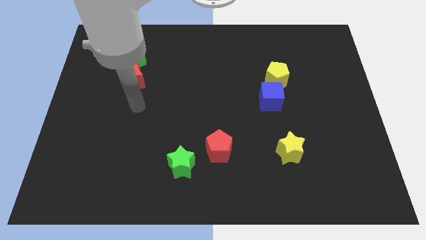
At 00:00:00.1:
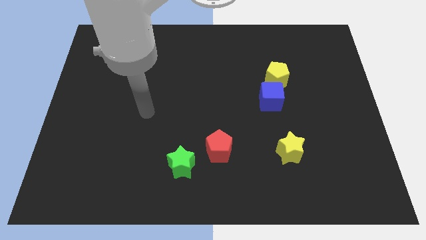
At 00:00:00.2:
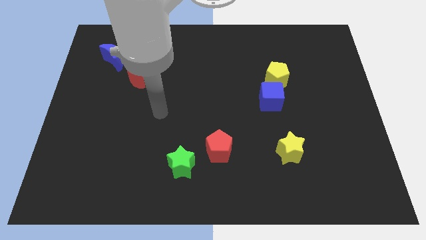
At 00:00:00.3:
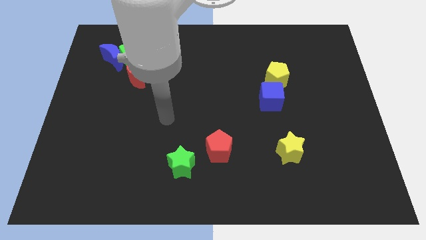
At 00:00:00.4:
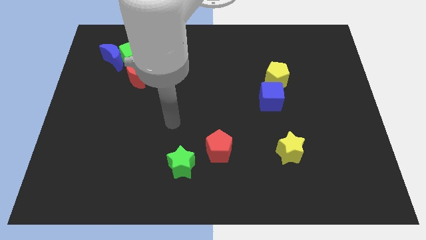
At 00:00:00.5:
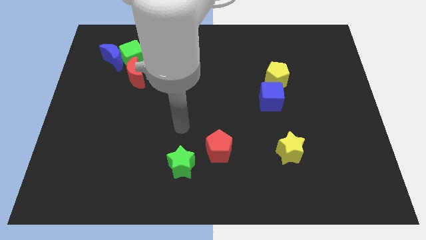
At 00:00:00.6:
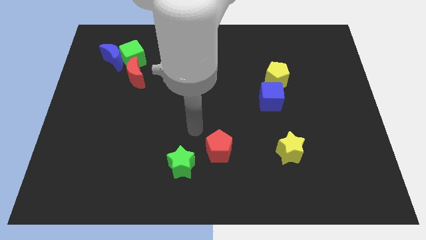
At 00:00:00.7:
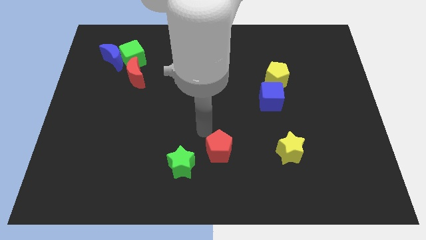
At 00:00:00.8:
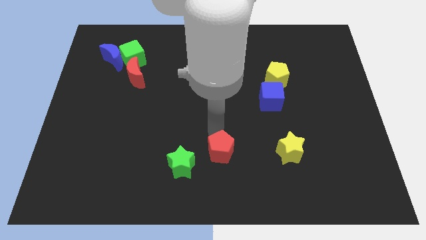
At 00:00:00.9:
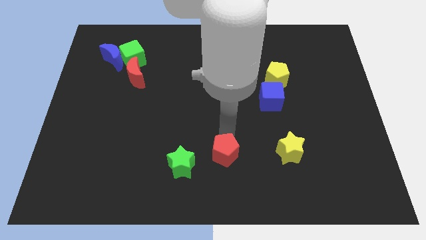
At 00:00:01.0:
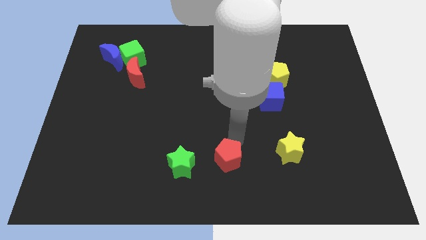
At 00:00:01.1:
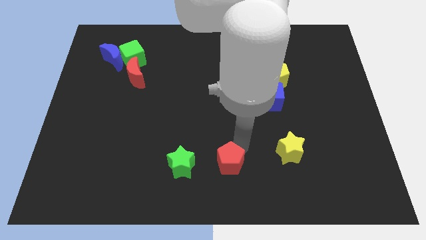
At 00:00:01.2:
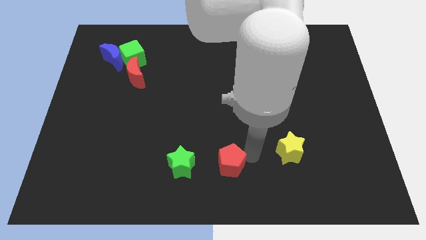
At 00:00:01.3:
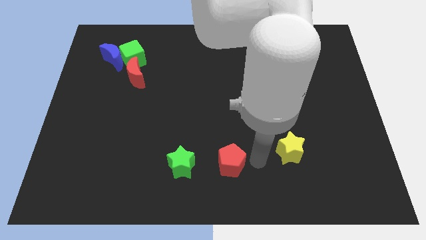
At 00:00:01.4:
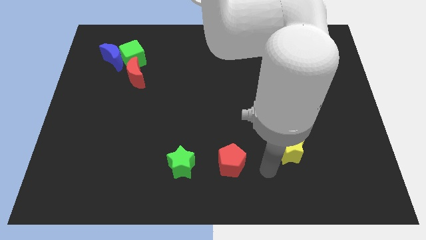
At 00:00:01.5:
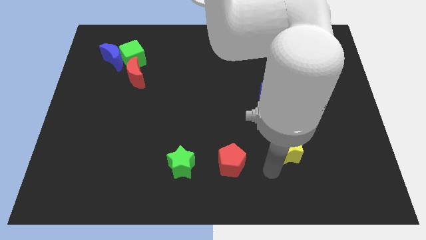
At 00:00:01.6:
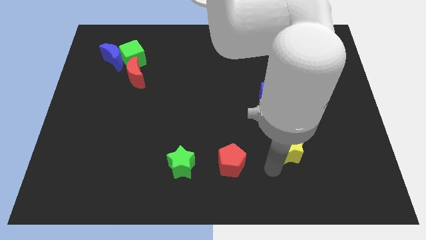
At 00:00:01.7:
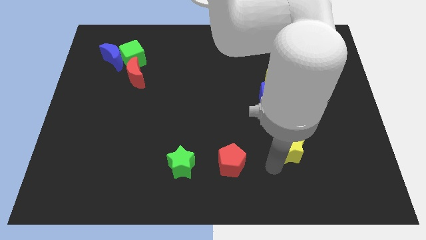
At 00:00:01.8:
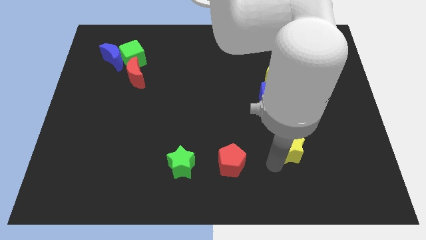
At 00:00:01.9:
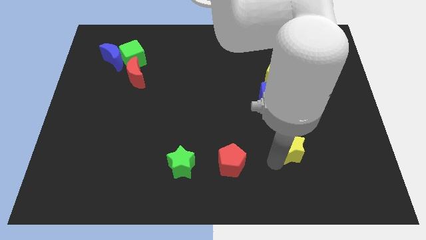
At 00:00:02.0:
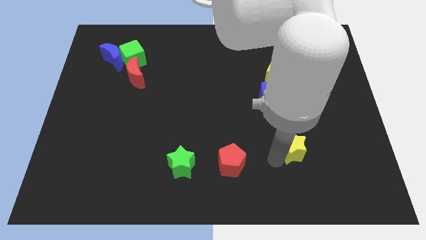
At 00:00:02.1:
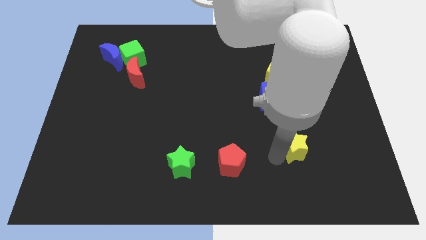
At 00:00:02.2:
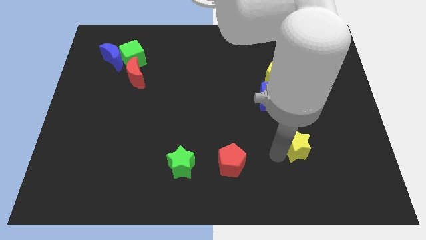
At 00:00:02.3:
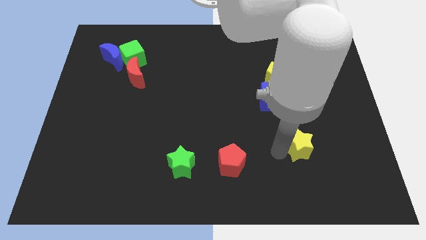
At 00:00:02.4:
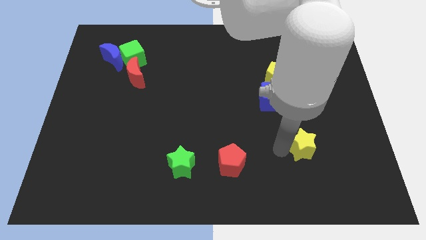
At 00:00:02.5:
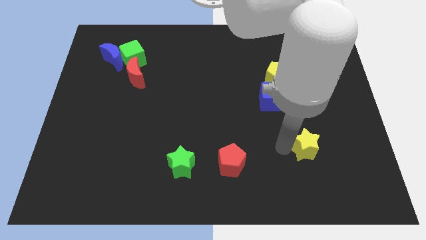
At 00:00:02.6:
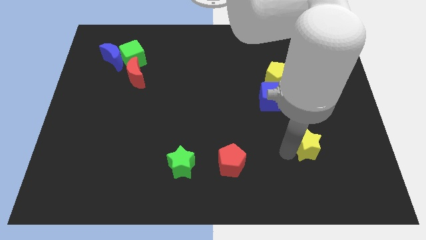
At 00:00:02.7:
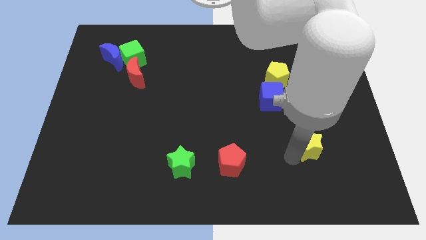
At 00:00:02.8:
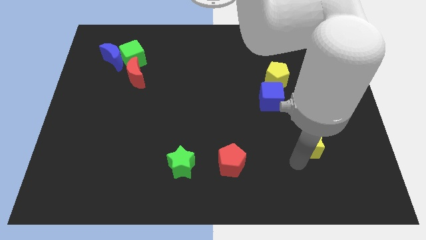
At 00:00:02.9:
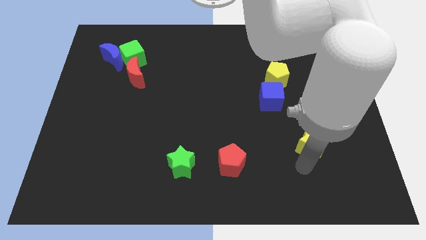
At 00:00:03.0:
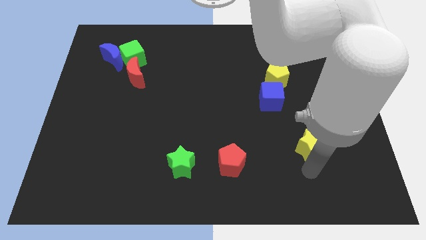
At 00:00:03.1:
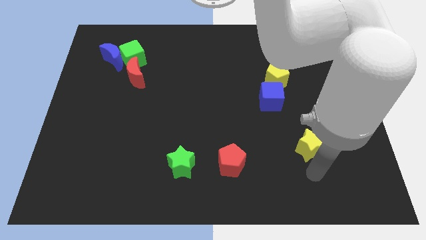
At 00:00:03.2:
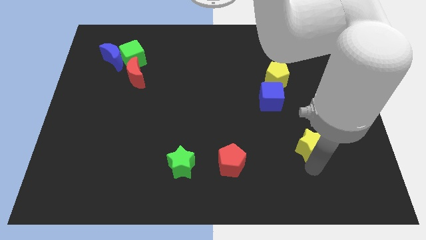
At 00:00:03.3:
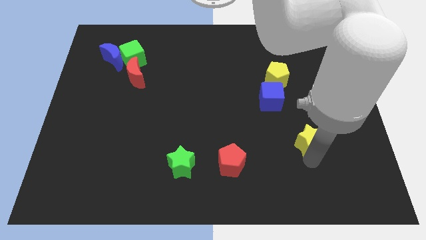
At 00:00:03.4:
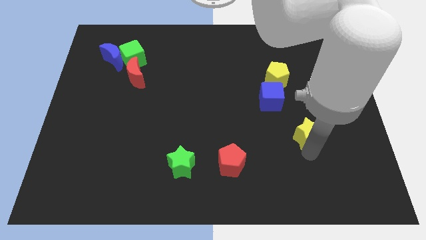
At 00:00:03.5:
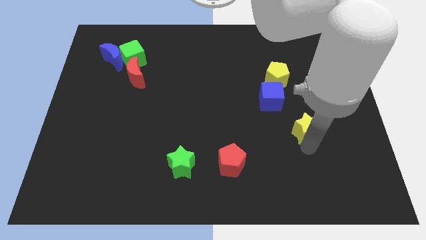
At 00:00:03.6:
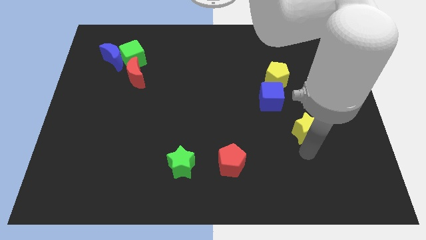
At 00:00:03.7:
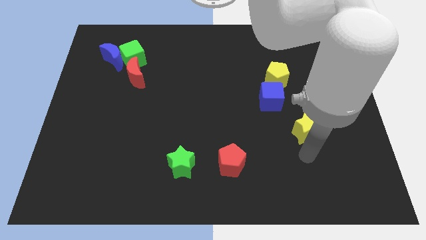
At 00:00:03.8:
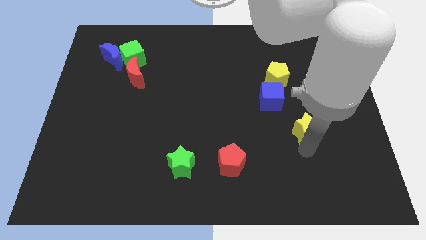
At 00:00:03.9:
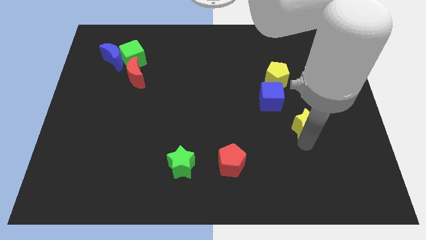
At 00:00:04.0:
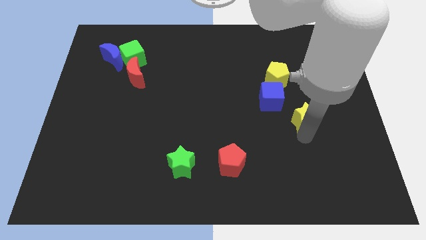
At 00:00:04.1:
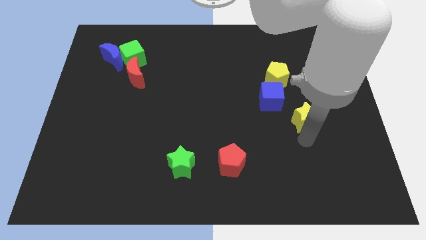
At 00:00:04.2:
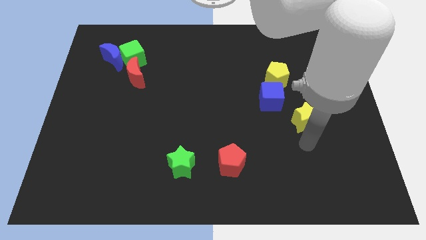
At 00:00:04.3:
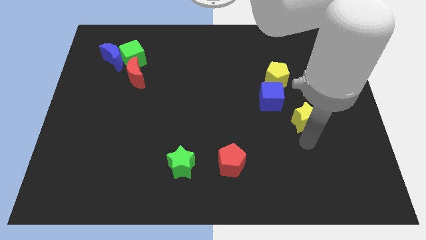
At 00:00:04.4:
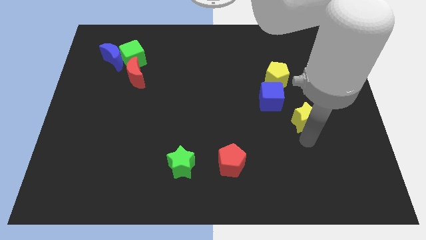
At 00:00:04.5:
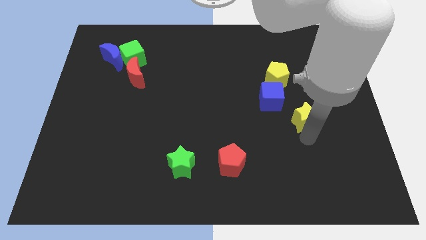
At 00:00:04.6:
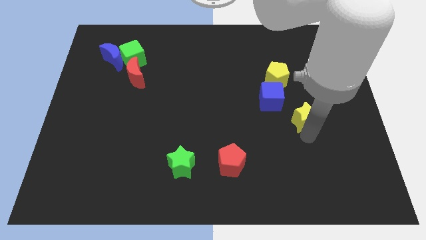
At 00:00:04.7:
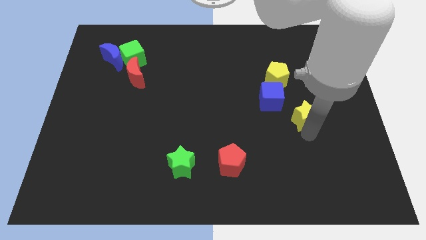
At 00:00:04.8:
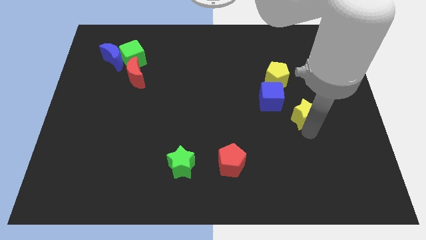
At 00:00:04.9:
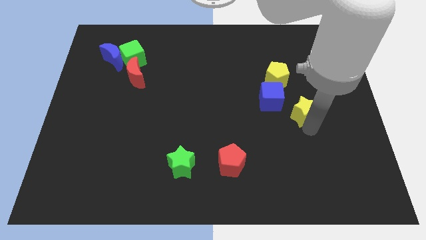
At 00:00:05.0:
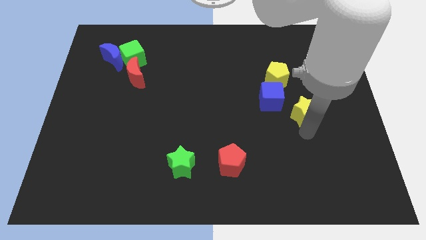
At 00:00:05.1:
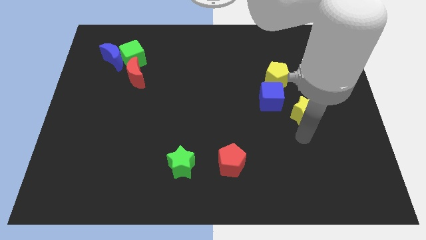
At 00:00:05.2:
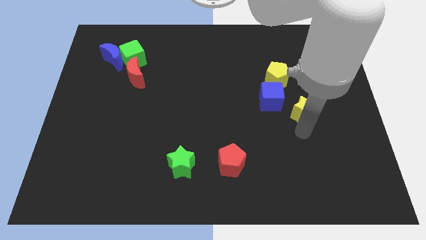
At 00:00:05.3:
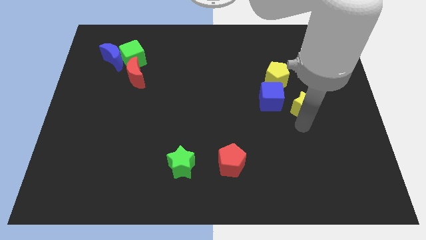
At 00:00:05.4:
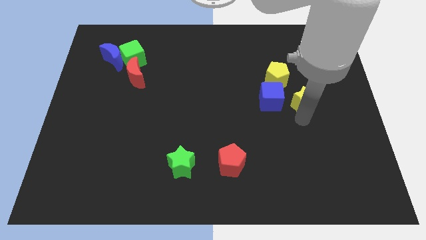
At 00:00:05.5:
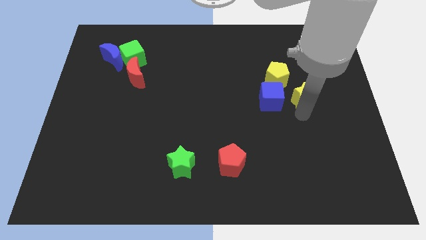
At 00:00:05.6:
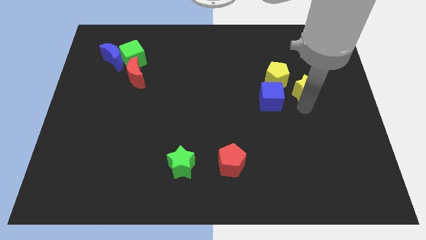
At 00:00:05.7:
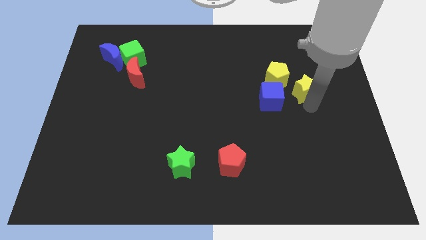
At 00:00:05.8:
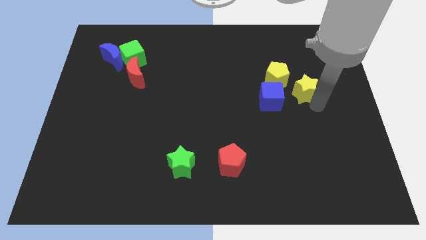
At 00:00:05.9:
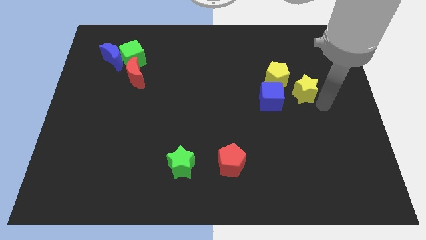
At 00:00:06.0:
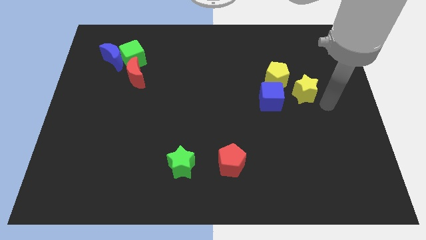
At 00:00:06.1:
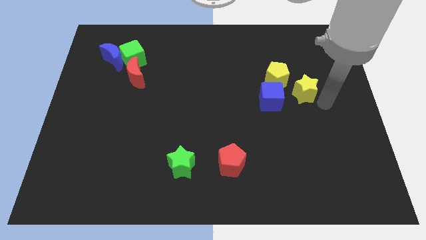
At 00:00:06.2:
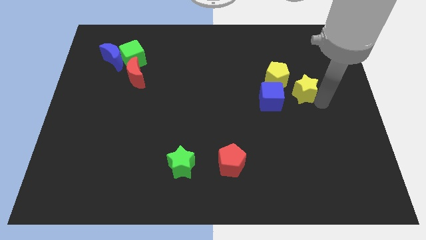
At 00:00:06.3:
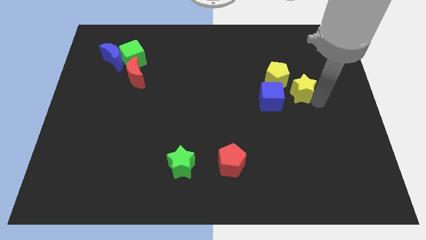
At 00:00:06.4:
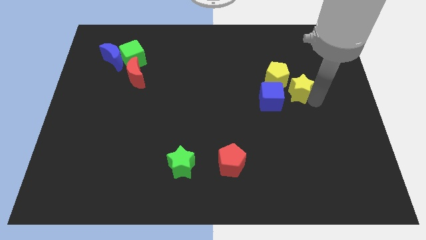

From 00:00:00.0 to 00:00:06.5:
put the yellow star towards the yellow pentagon

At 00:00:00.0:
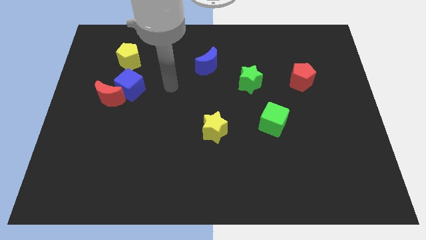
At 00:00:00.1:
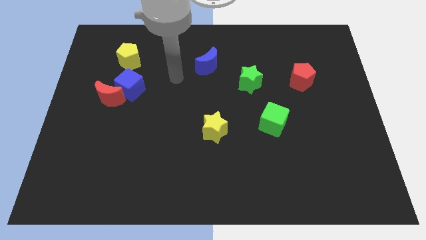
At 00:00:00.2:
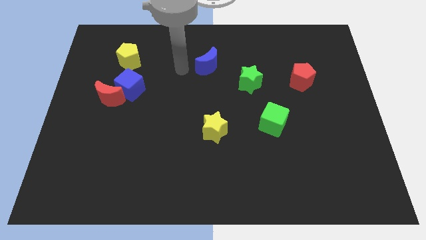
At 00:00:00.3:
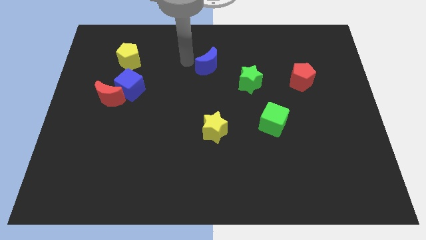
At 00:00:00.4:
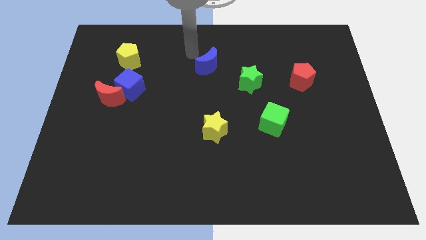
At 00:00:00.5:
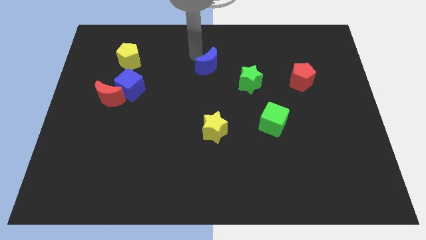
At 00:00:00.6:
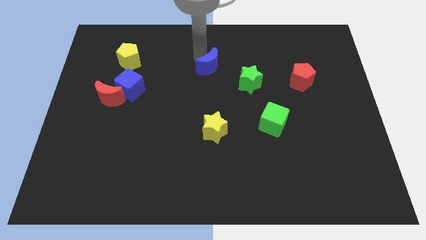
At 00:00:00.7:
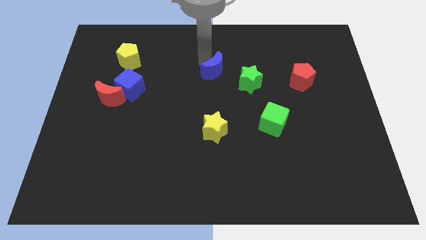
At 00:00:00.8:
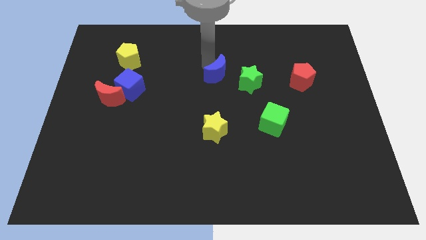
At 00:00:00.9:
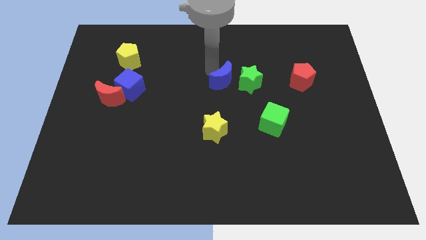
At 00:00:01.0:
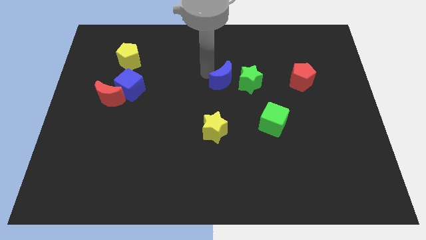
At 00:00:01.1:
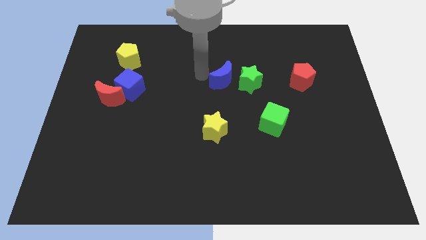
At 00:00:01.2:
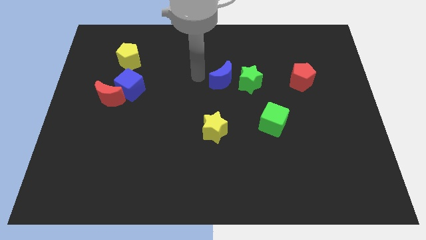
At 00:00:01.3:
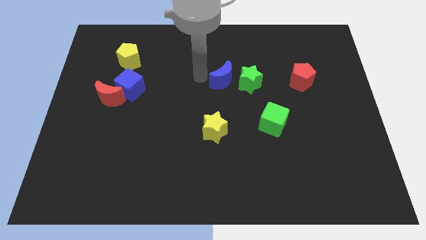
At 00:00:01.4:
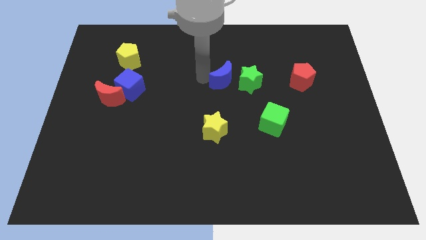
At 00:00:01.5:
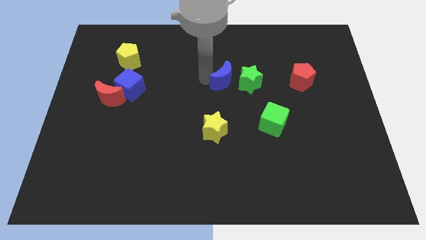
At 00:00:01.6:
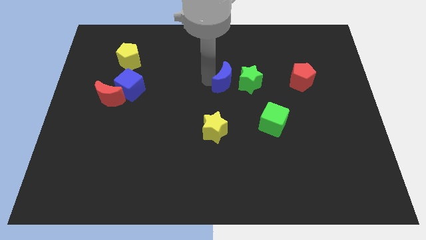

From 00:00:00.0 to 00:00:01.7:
put the blue moon to the green star
